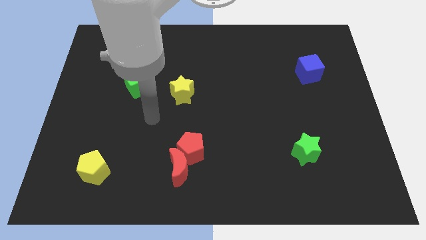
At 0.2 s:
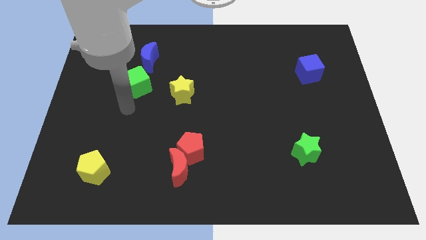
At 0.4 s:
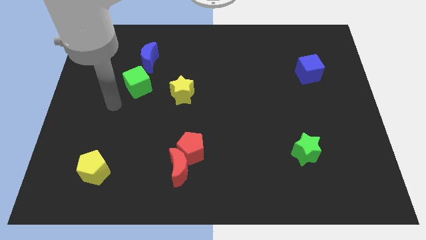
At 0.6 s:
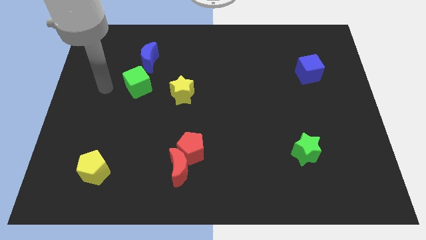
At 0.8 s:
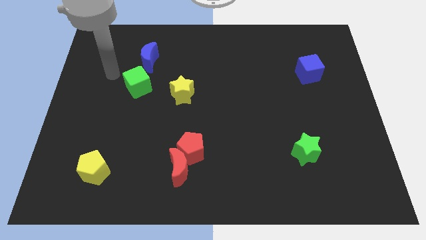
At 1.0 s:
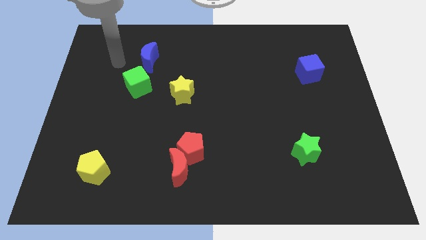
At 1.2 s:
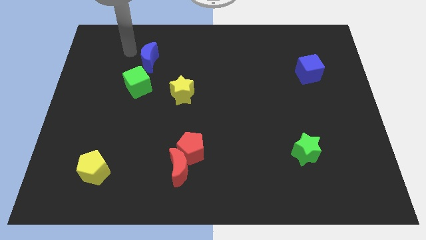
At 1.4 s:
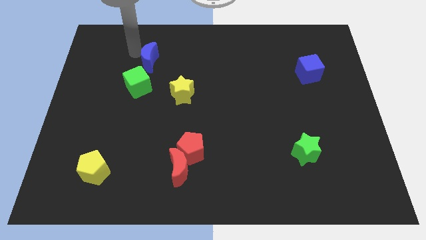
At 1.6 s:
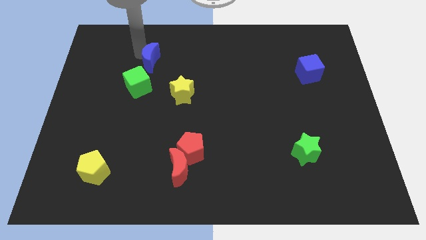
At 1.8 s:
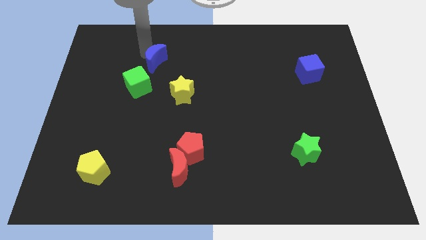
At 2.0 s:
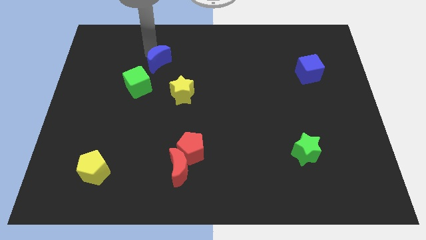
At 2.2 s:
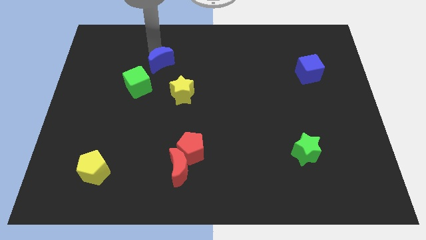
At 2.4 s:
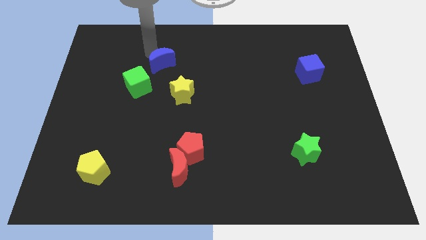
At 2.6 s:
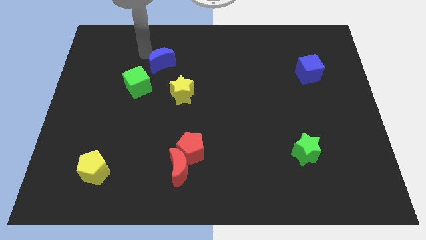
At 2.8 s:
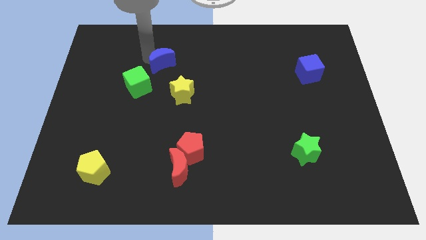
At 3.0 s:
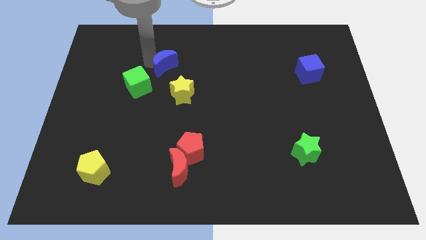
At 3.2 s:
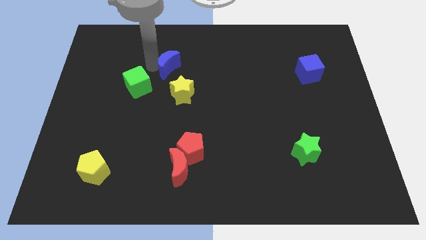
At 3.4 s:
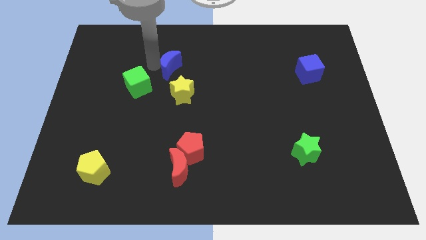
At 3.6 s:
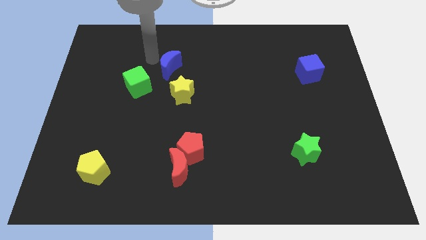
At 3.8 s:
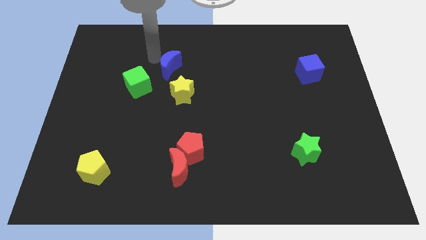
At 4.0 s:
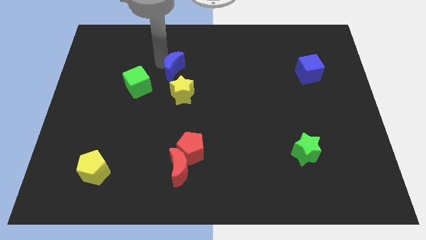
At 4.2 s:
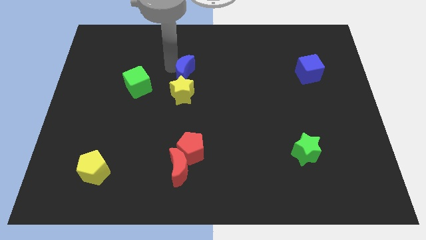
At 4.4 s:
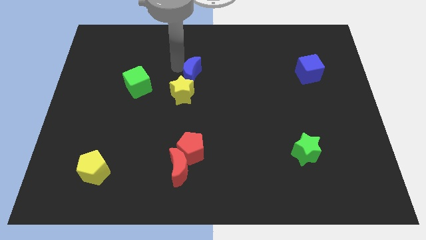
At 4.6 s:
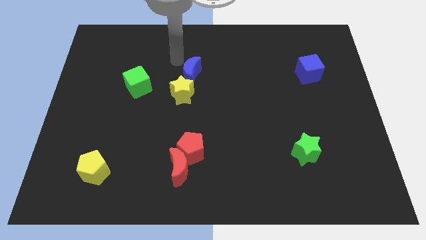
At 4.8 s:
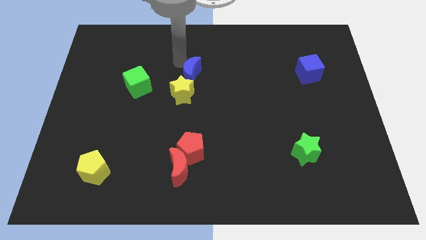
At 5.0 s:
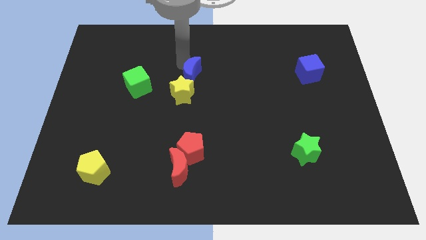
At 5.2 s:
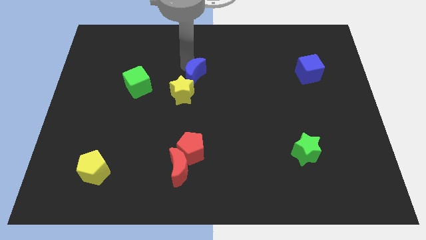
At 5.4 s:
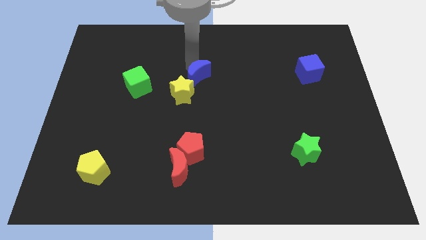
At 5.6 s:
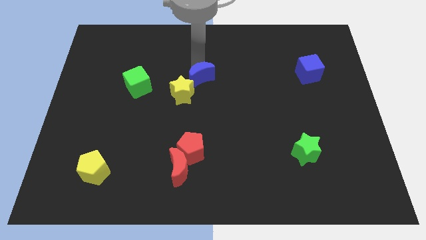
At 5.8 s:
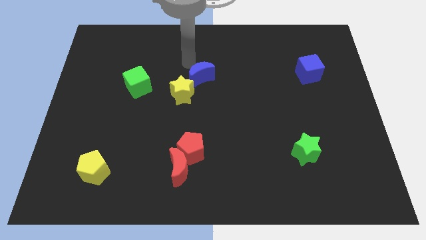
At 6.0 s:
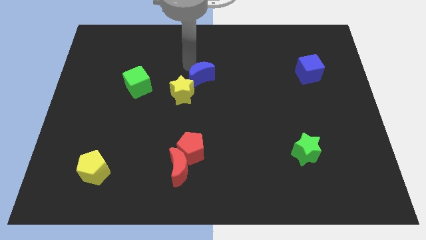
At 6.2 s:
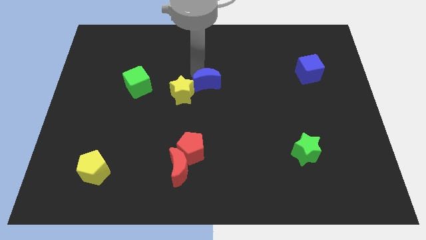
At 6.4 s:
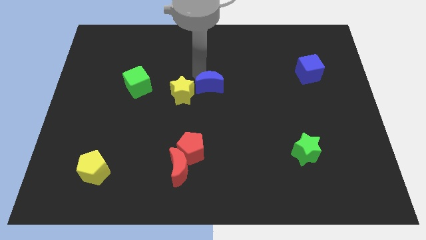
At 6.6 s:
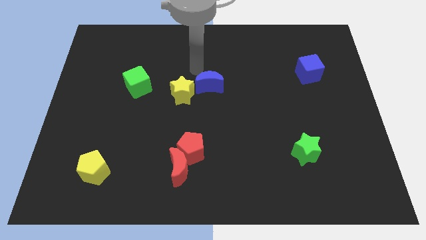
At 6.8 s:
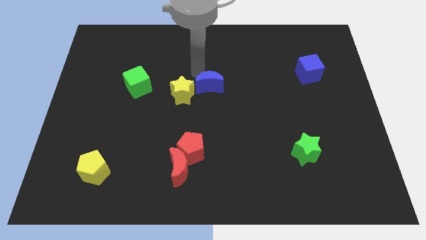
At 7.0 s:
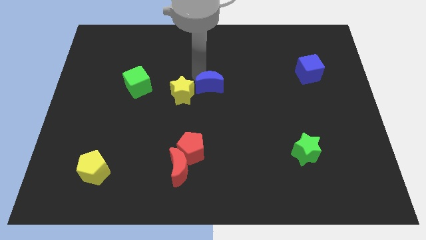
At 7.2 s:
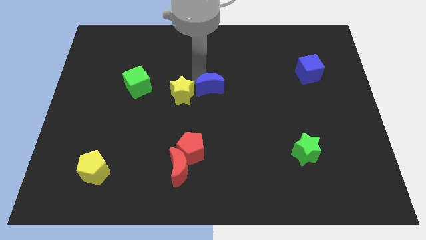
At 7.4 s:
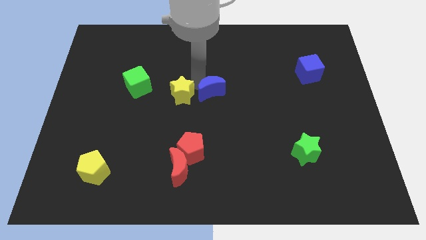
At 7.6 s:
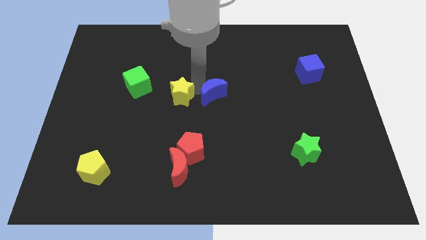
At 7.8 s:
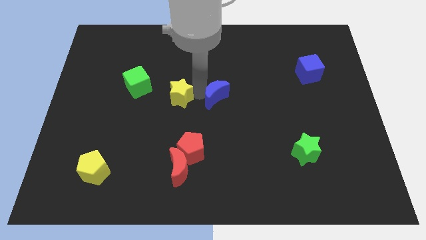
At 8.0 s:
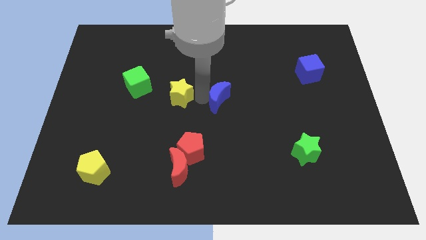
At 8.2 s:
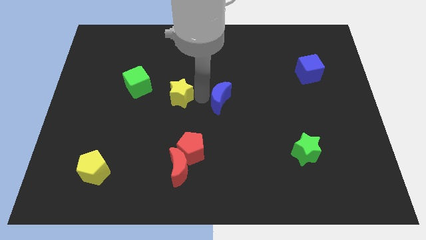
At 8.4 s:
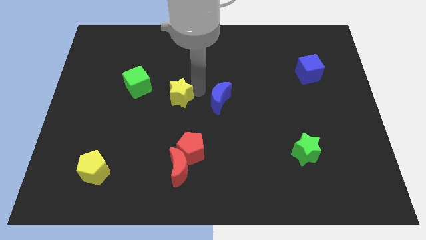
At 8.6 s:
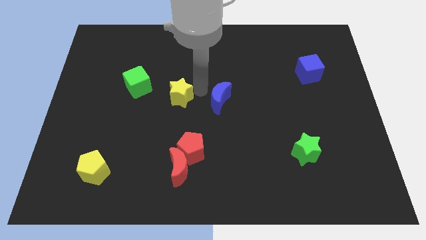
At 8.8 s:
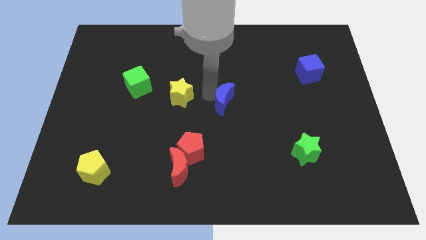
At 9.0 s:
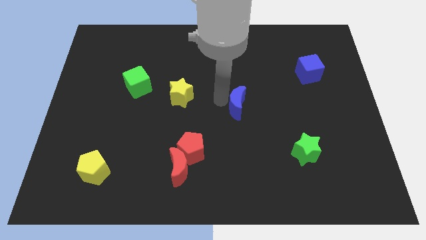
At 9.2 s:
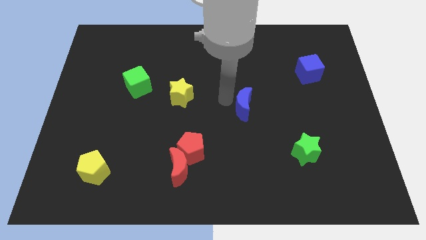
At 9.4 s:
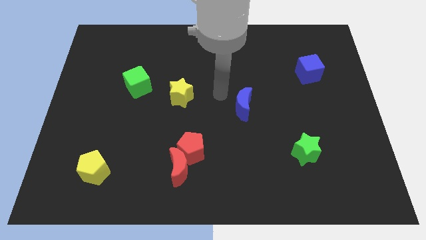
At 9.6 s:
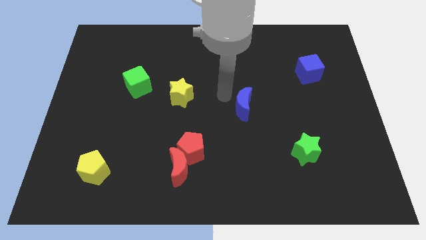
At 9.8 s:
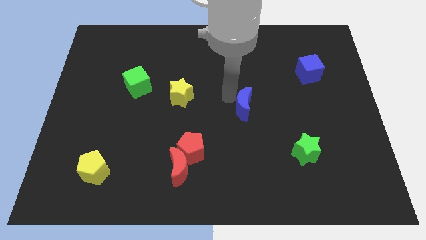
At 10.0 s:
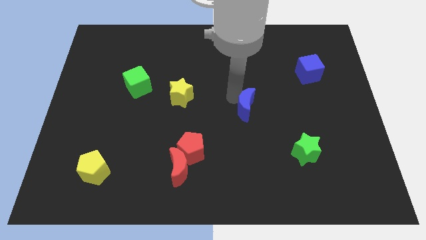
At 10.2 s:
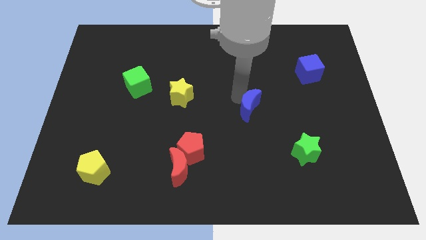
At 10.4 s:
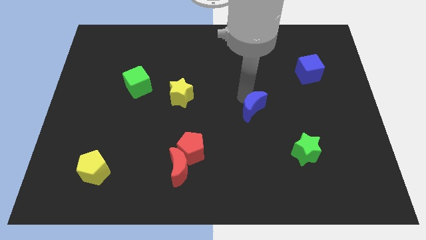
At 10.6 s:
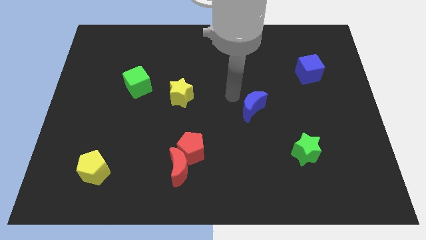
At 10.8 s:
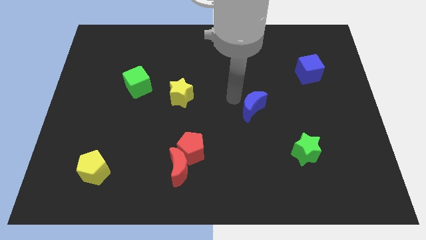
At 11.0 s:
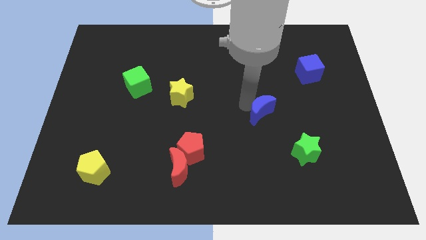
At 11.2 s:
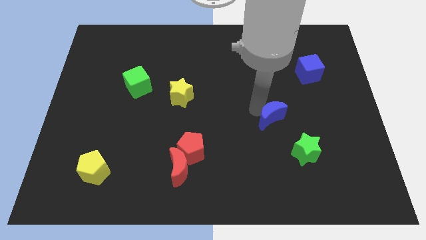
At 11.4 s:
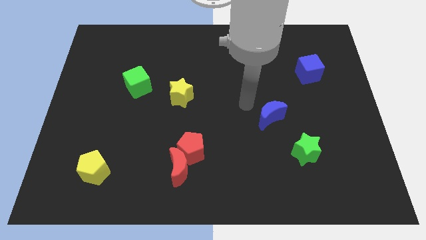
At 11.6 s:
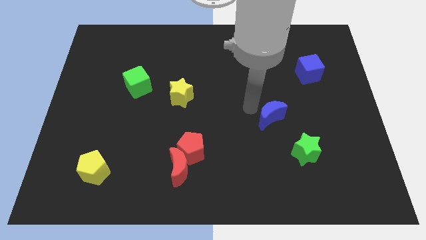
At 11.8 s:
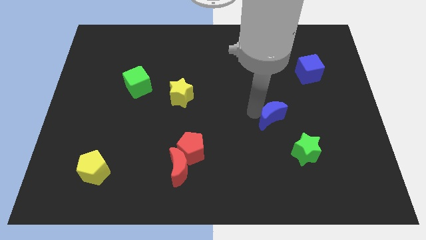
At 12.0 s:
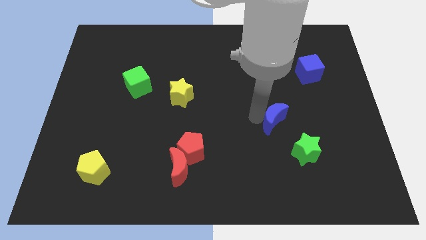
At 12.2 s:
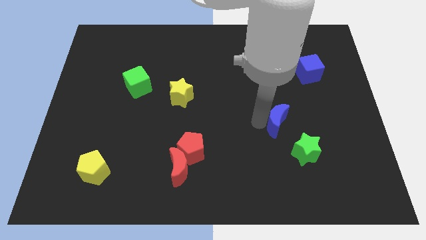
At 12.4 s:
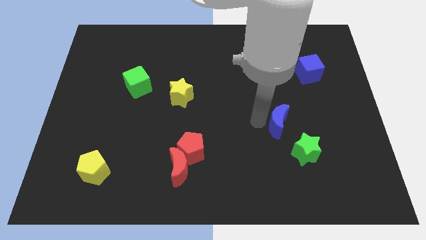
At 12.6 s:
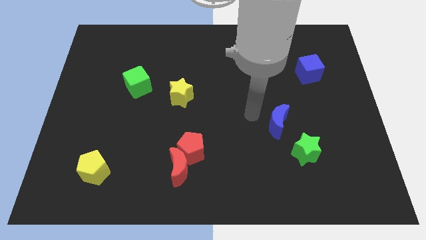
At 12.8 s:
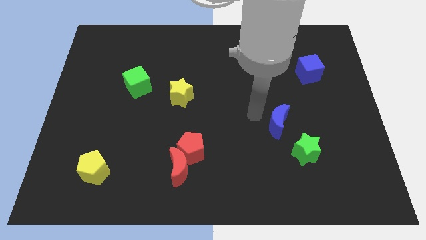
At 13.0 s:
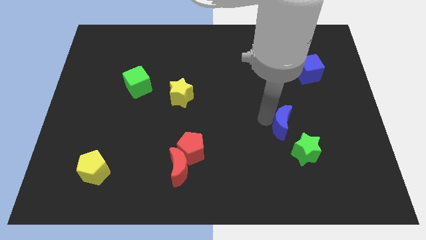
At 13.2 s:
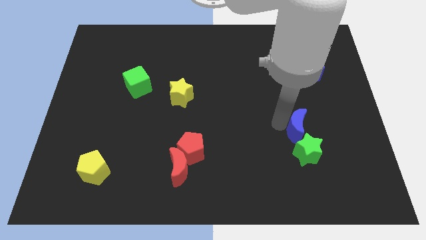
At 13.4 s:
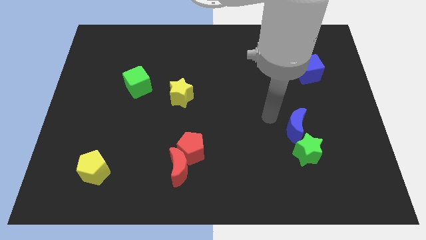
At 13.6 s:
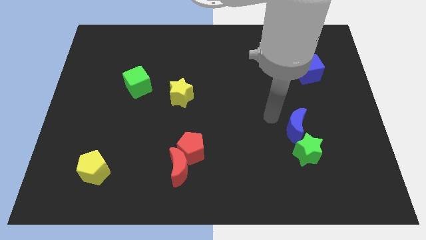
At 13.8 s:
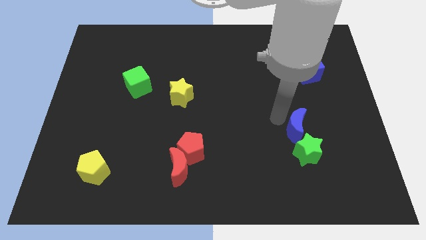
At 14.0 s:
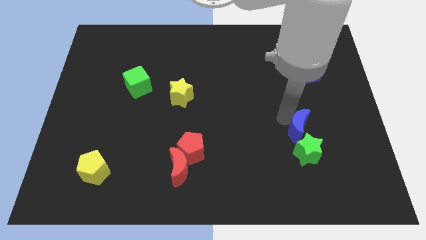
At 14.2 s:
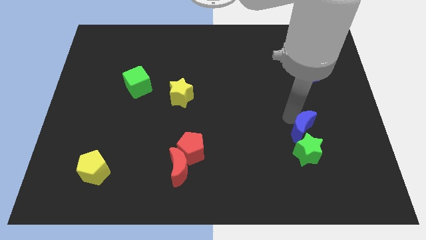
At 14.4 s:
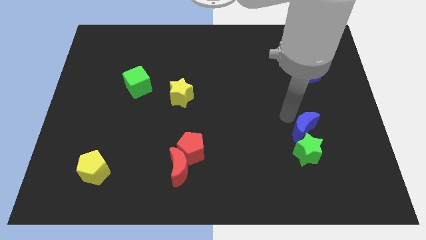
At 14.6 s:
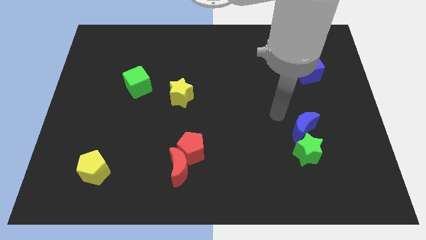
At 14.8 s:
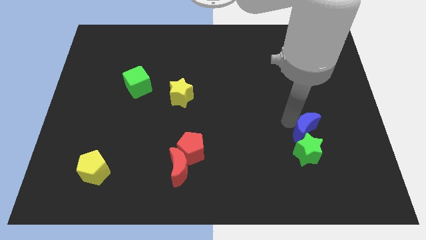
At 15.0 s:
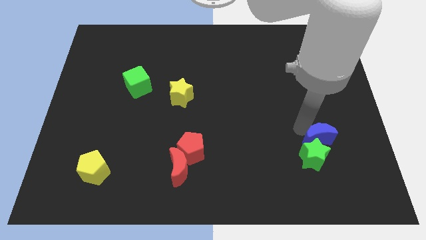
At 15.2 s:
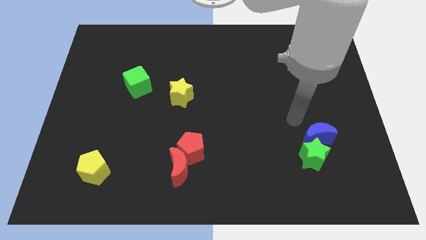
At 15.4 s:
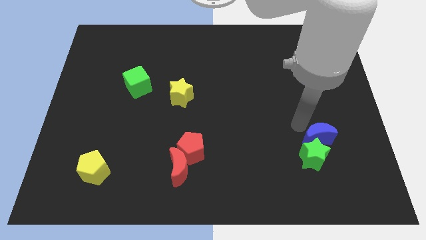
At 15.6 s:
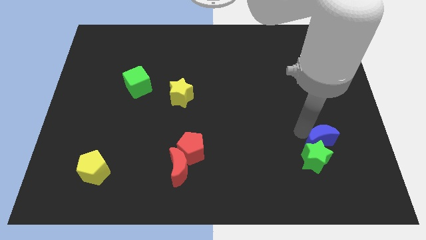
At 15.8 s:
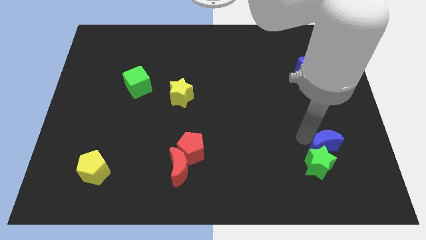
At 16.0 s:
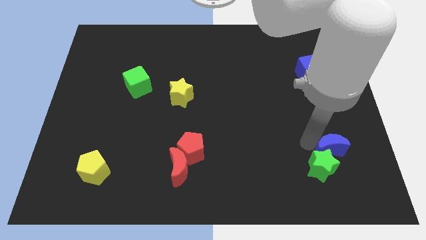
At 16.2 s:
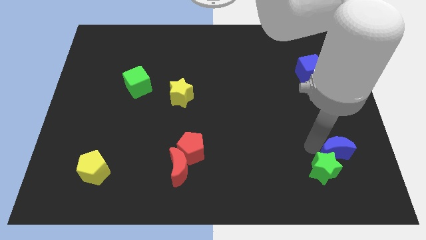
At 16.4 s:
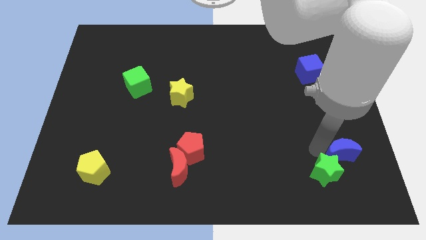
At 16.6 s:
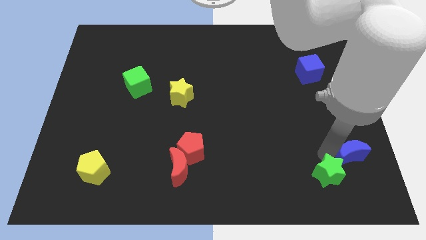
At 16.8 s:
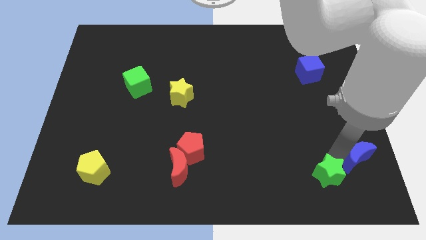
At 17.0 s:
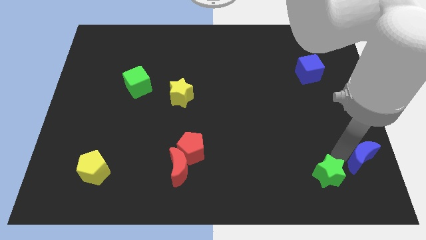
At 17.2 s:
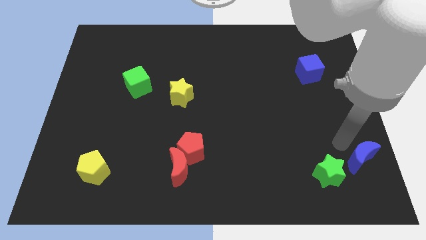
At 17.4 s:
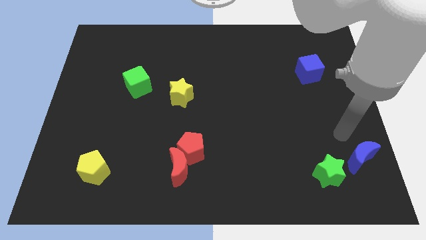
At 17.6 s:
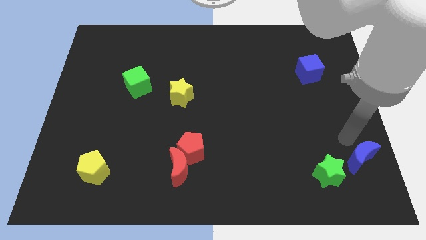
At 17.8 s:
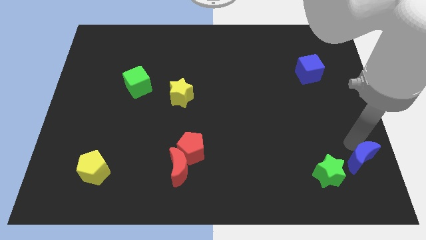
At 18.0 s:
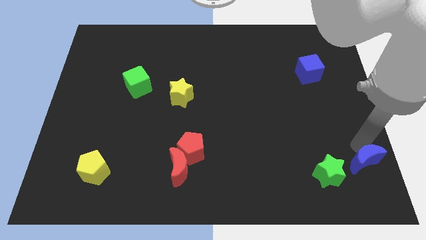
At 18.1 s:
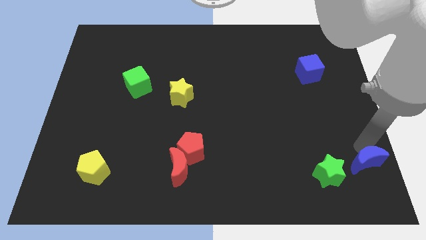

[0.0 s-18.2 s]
push the blue moon to the bottom right
